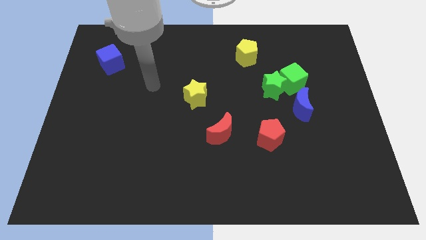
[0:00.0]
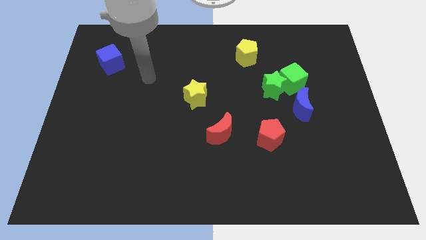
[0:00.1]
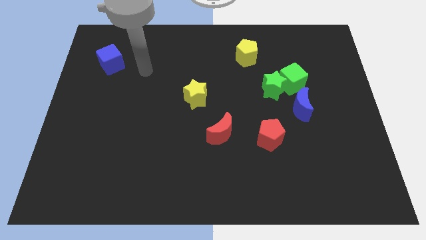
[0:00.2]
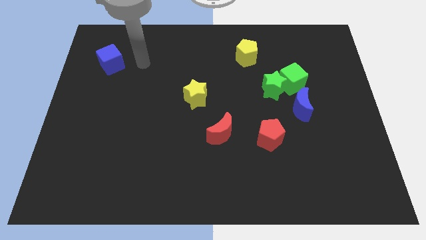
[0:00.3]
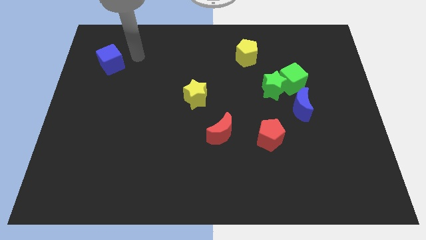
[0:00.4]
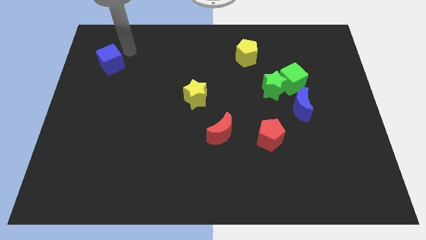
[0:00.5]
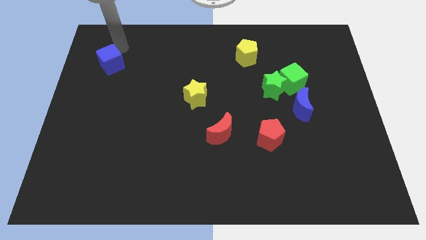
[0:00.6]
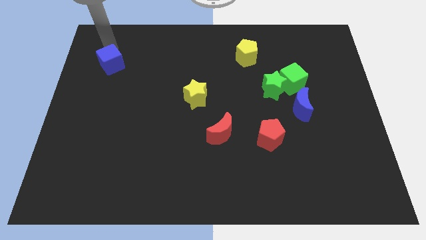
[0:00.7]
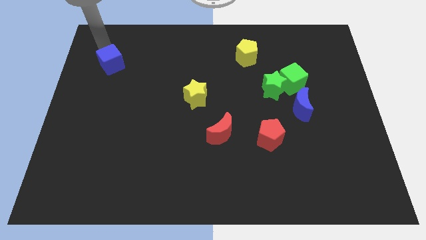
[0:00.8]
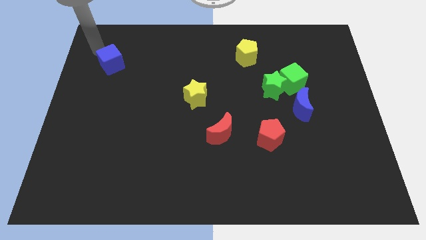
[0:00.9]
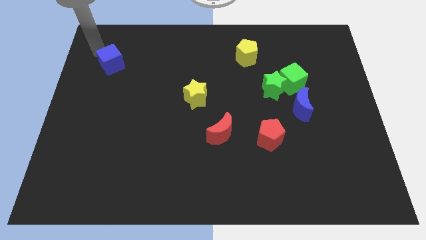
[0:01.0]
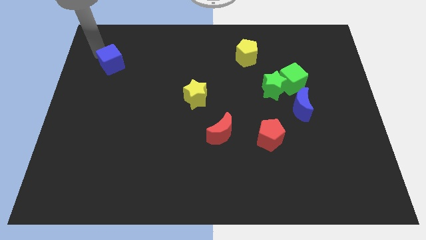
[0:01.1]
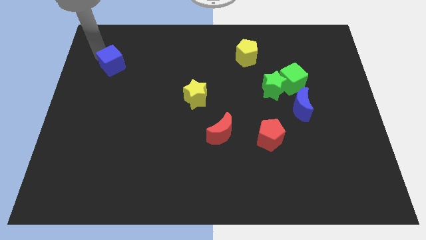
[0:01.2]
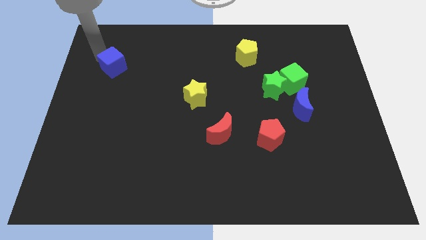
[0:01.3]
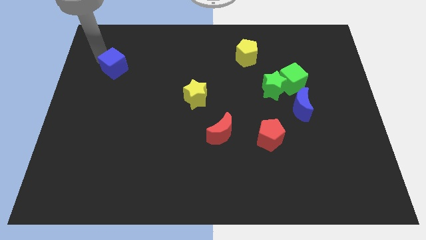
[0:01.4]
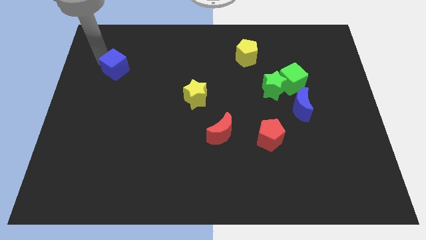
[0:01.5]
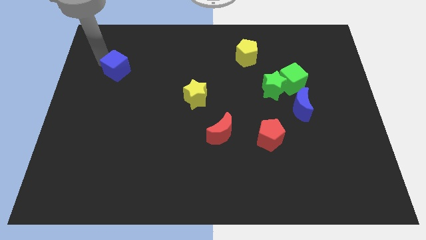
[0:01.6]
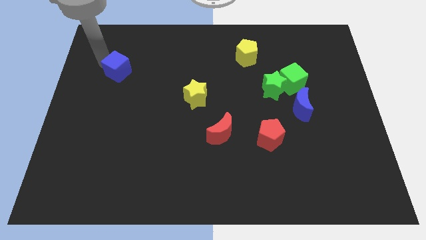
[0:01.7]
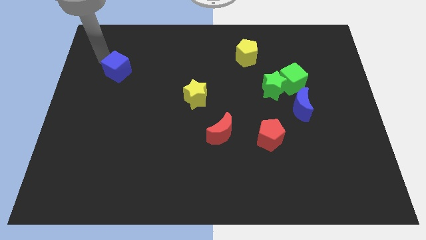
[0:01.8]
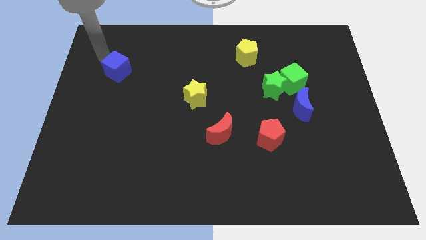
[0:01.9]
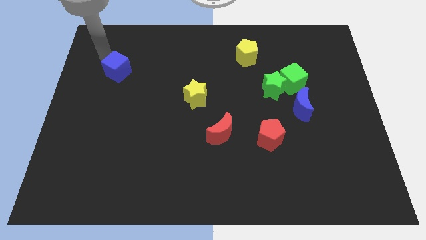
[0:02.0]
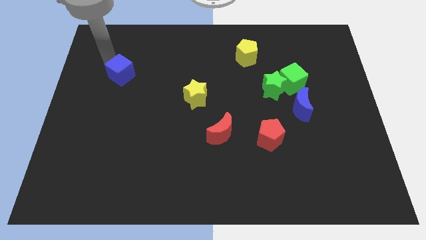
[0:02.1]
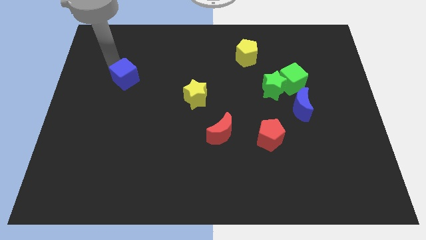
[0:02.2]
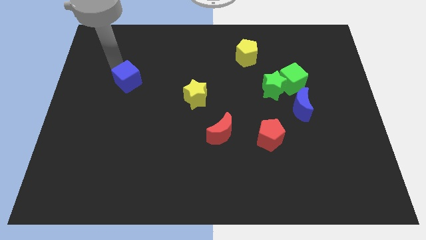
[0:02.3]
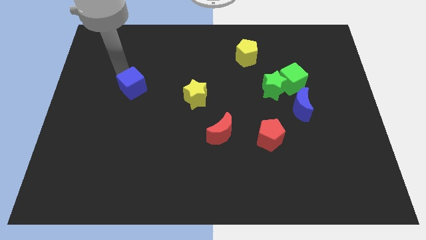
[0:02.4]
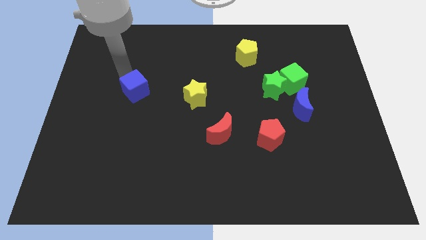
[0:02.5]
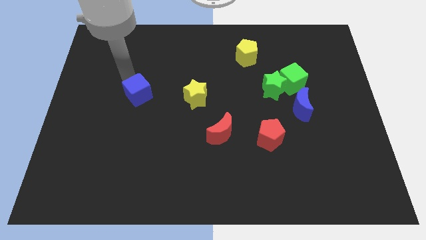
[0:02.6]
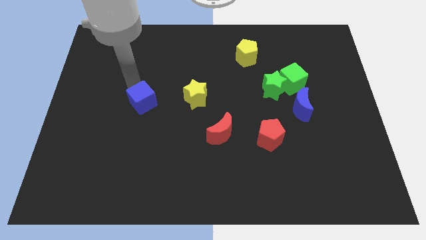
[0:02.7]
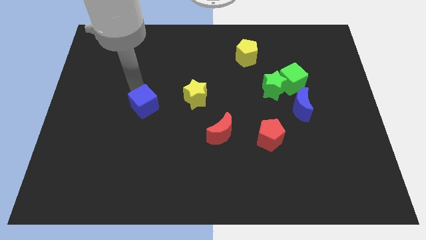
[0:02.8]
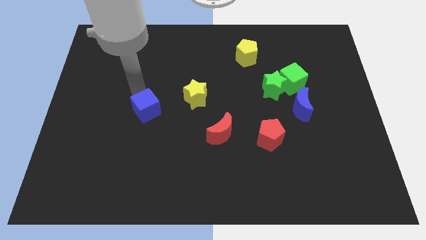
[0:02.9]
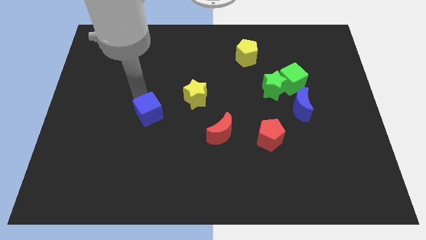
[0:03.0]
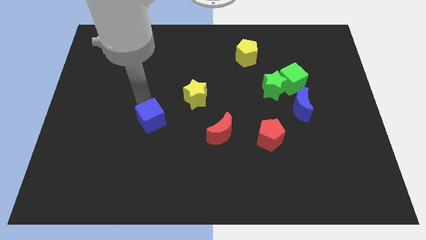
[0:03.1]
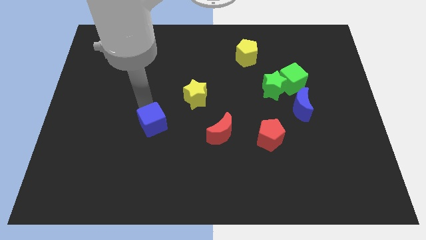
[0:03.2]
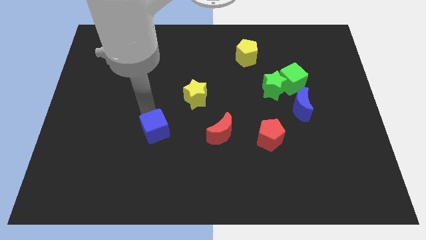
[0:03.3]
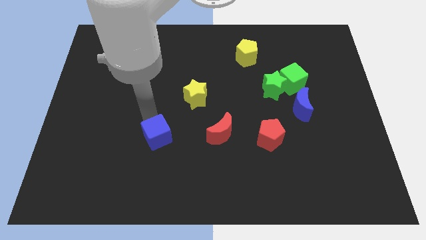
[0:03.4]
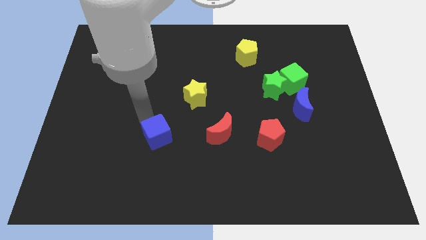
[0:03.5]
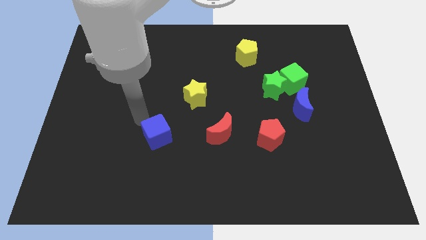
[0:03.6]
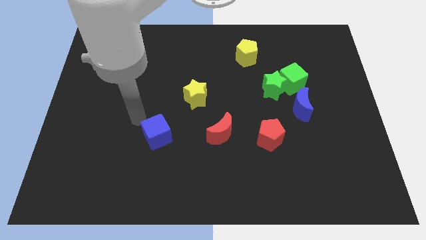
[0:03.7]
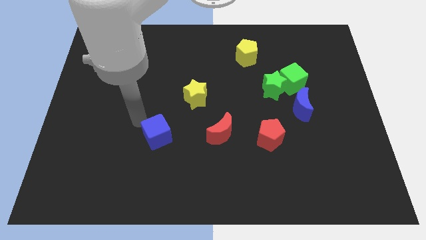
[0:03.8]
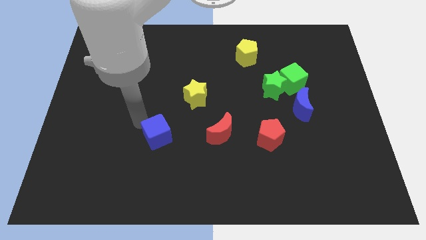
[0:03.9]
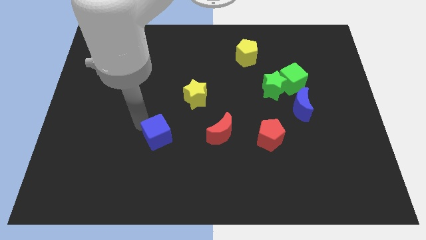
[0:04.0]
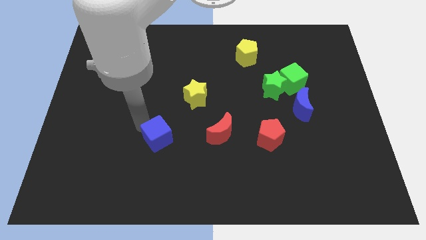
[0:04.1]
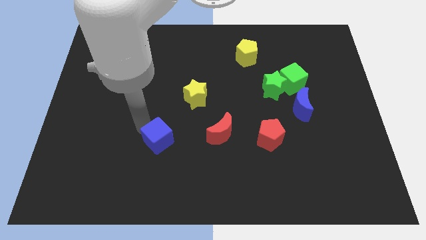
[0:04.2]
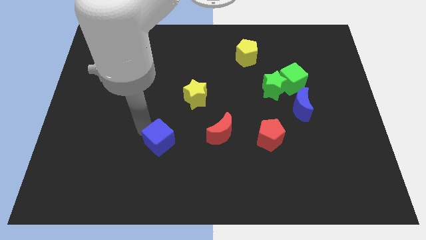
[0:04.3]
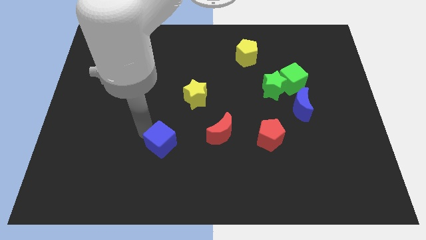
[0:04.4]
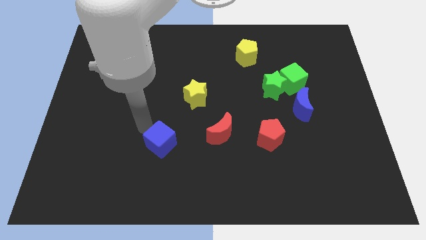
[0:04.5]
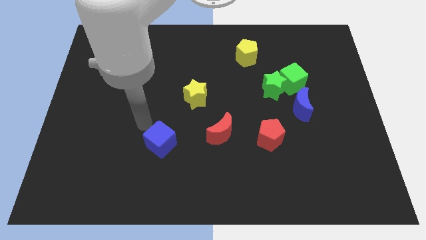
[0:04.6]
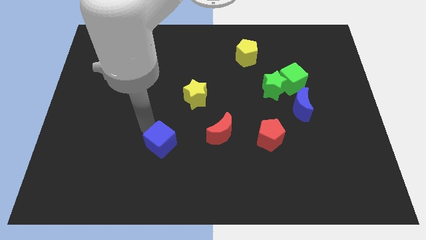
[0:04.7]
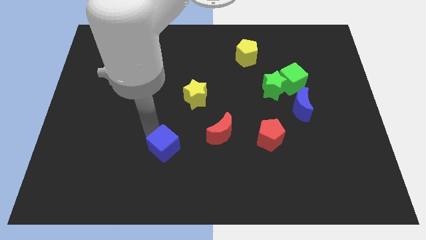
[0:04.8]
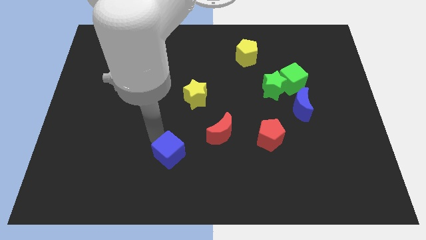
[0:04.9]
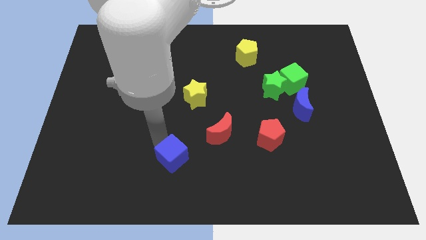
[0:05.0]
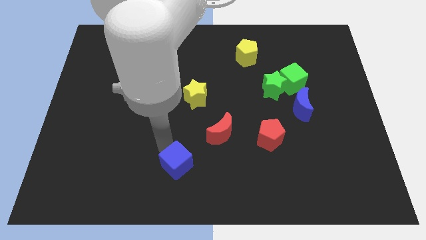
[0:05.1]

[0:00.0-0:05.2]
move the blue cube to the bottom side

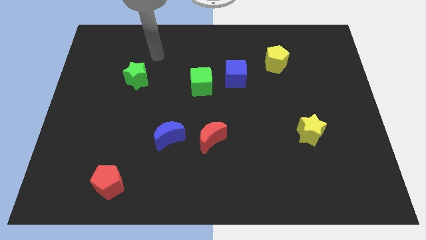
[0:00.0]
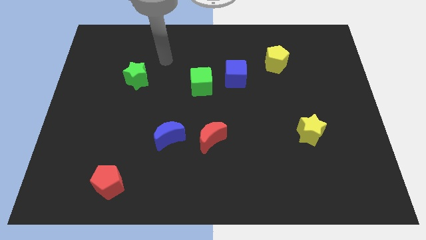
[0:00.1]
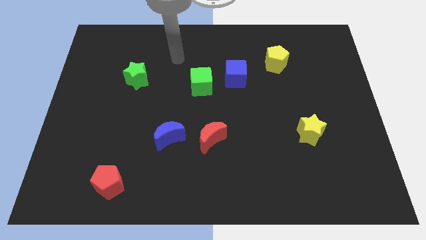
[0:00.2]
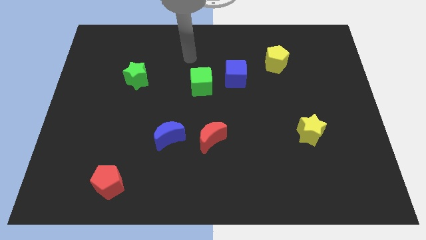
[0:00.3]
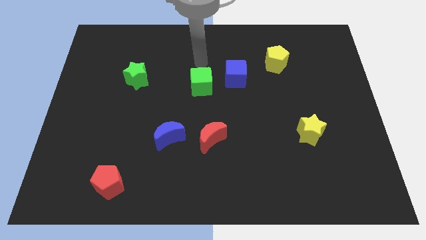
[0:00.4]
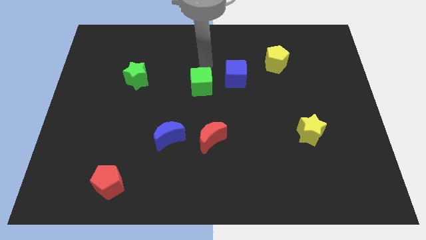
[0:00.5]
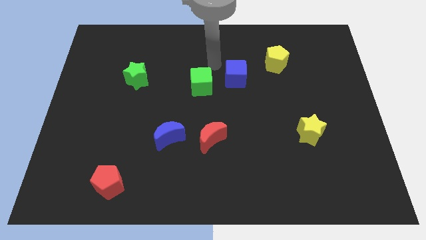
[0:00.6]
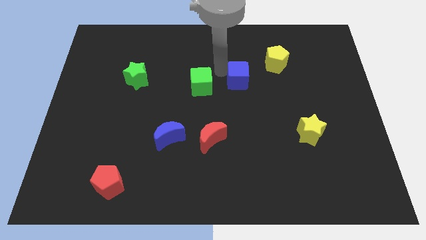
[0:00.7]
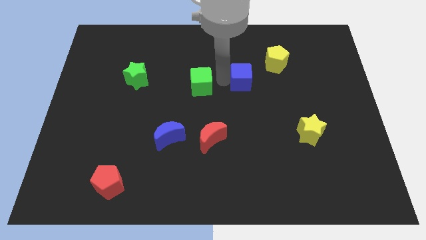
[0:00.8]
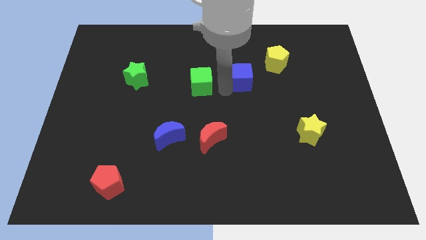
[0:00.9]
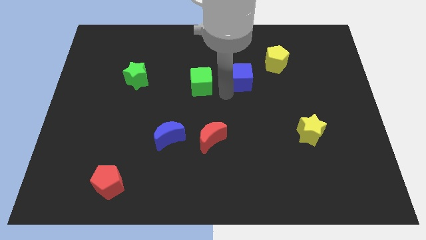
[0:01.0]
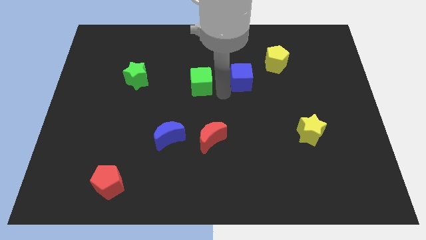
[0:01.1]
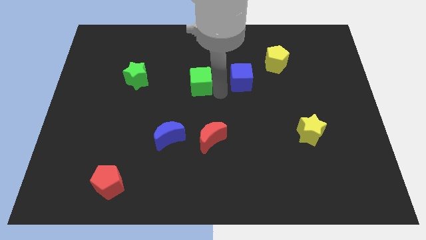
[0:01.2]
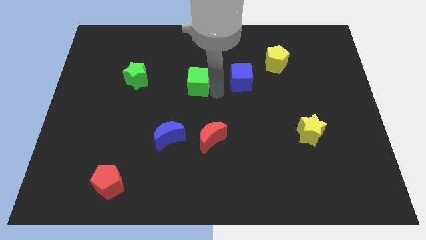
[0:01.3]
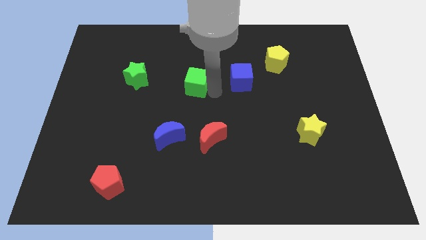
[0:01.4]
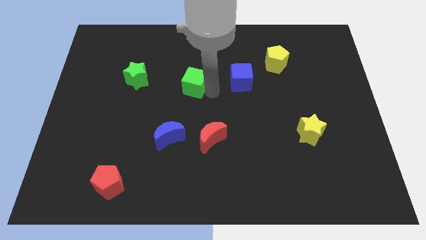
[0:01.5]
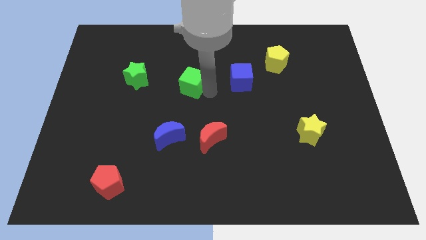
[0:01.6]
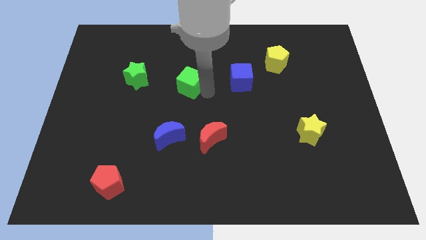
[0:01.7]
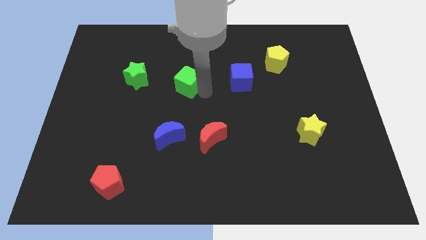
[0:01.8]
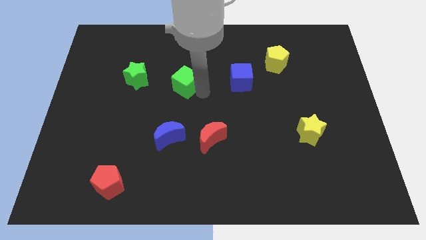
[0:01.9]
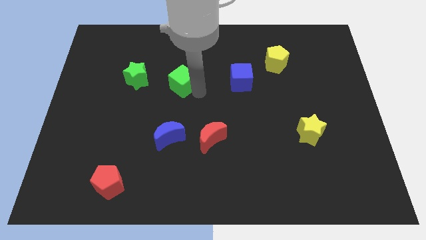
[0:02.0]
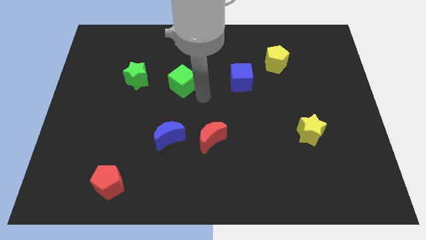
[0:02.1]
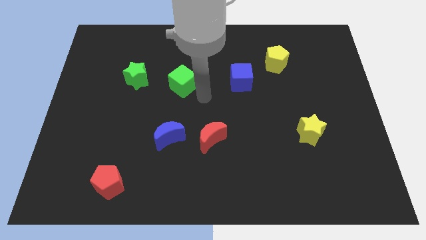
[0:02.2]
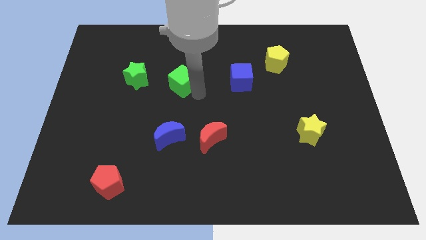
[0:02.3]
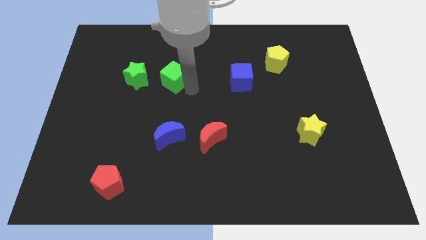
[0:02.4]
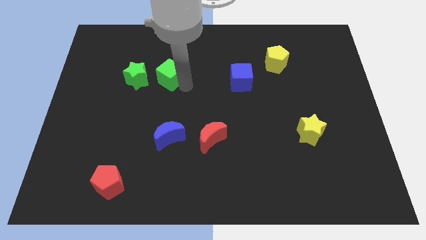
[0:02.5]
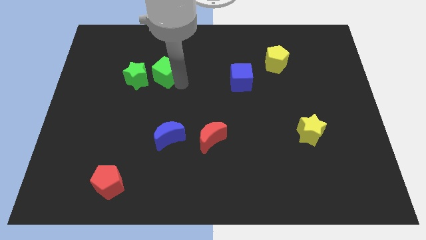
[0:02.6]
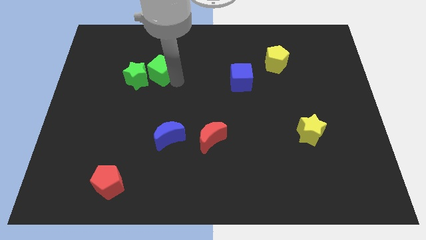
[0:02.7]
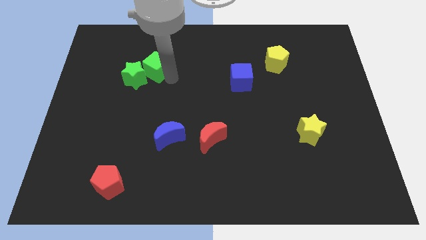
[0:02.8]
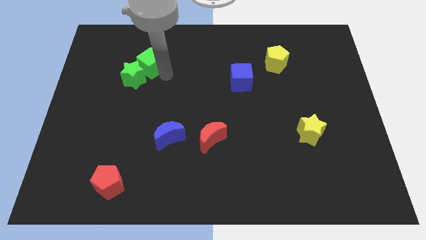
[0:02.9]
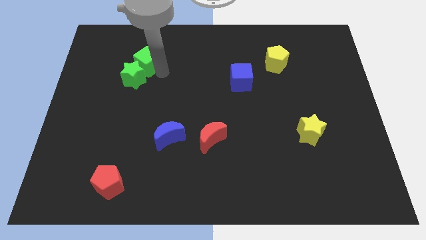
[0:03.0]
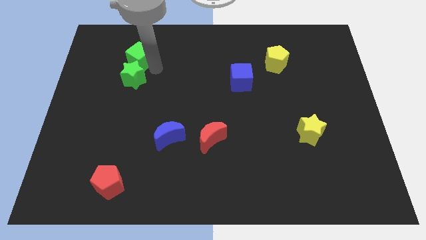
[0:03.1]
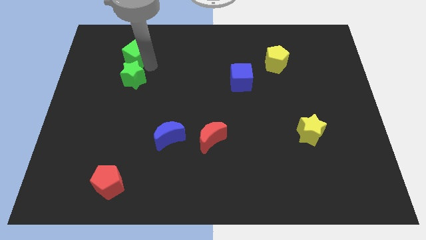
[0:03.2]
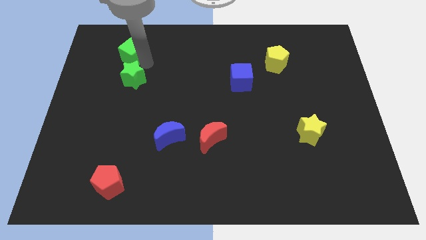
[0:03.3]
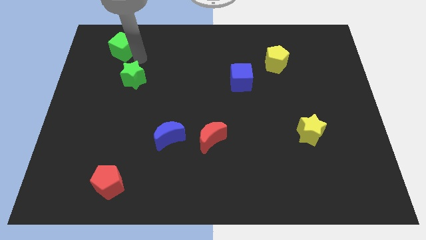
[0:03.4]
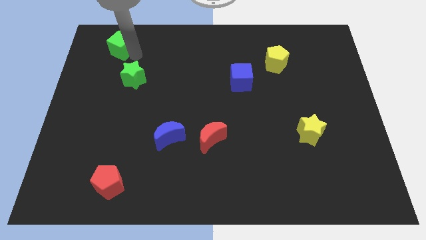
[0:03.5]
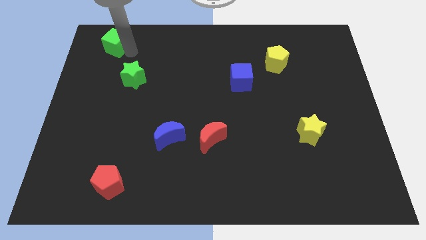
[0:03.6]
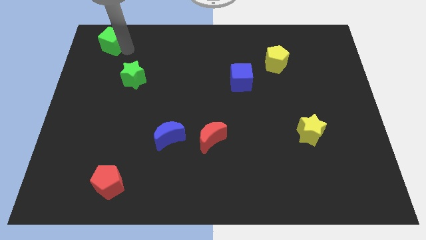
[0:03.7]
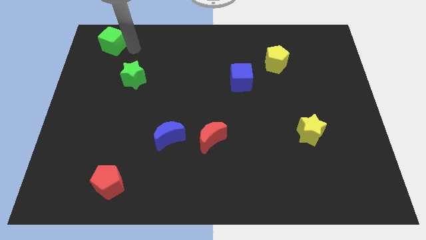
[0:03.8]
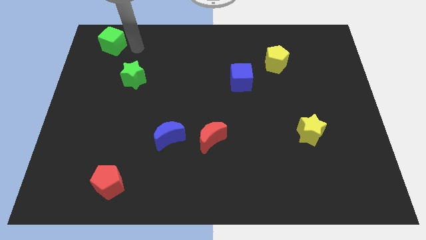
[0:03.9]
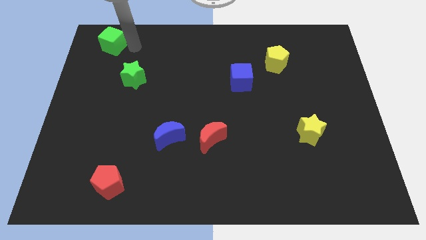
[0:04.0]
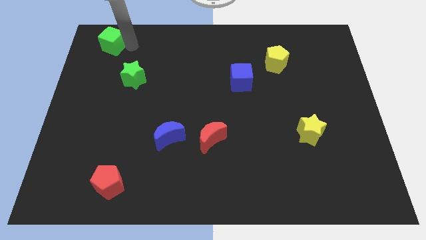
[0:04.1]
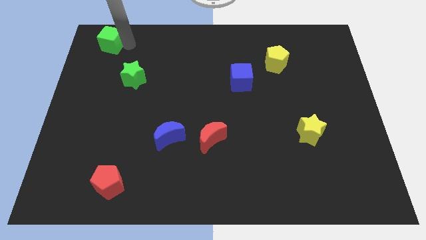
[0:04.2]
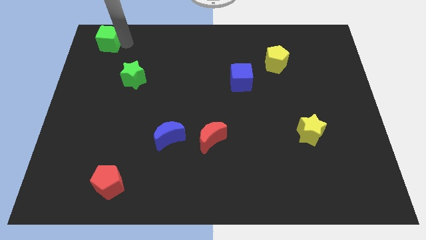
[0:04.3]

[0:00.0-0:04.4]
slide the green cube to the upper left corner
